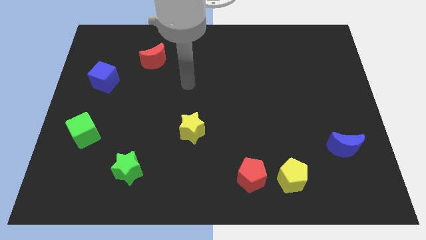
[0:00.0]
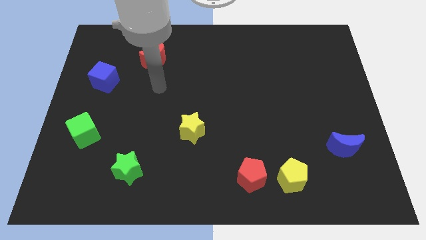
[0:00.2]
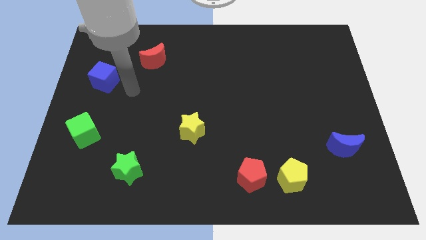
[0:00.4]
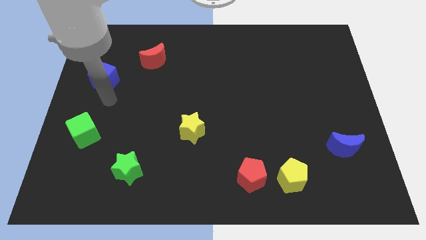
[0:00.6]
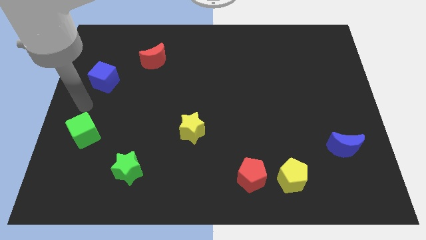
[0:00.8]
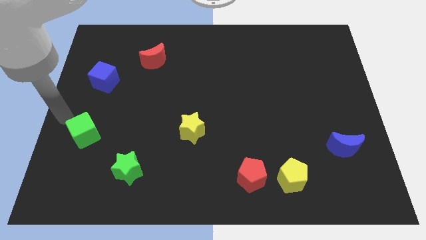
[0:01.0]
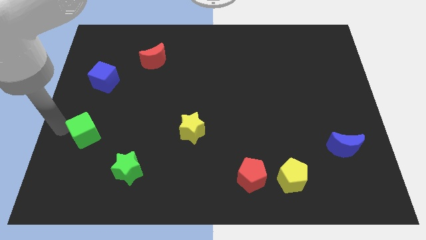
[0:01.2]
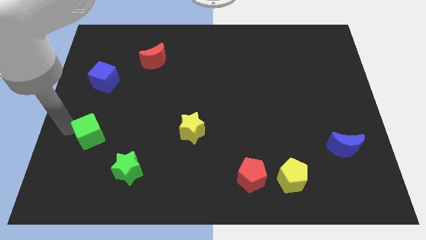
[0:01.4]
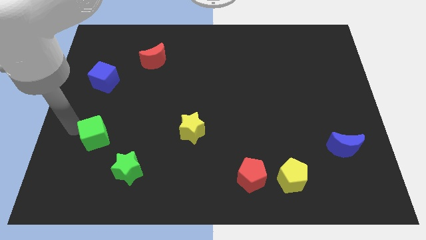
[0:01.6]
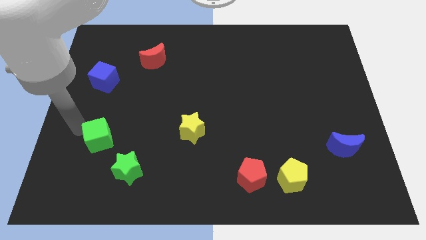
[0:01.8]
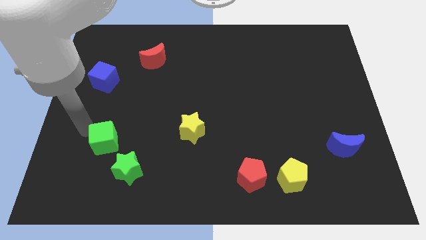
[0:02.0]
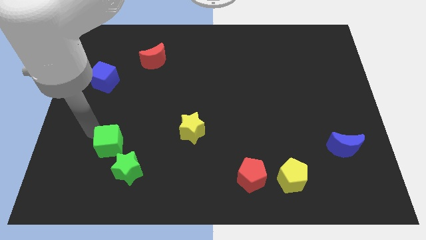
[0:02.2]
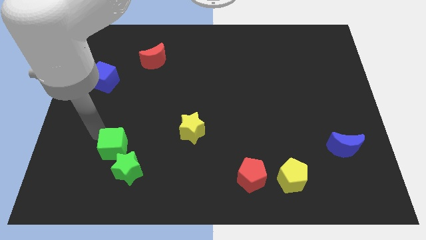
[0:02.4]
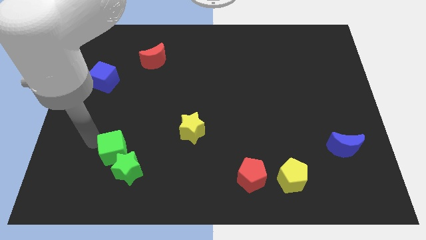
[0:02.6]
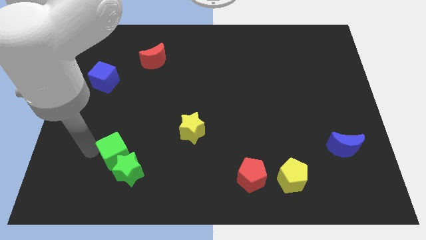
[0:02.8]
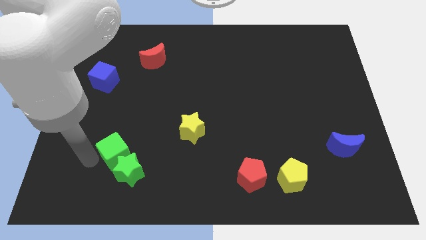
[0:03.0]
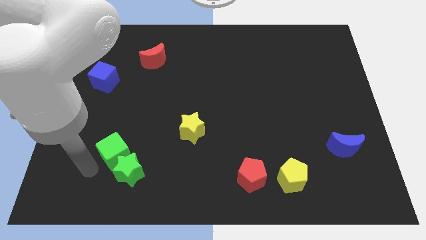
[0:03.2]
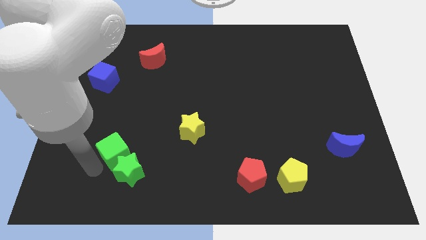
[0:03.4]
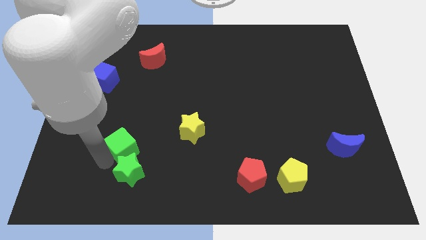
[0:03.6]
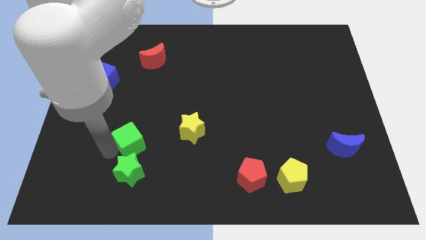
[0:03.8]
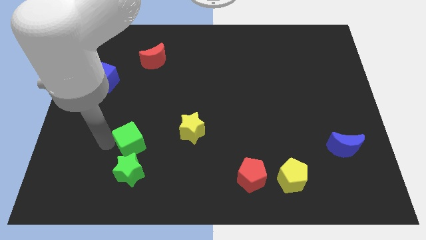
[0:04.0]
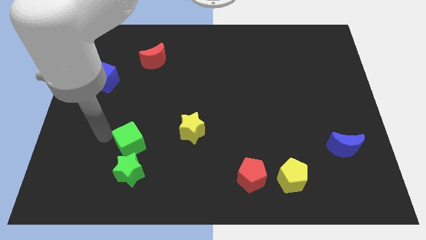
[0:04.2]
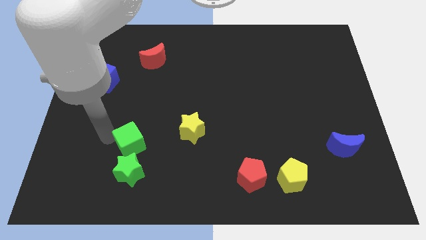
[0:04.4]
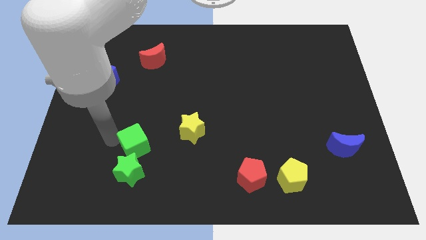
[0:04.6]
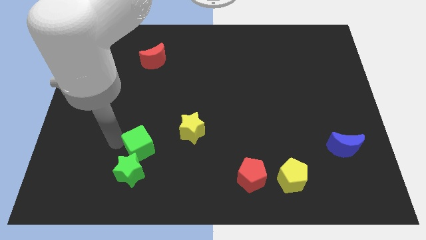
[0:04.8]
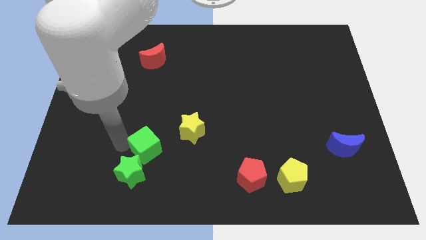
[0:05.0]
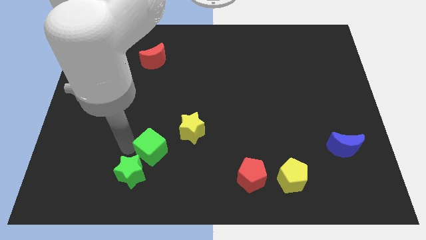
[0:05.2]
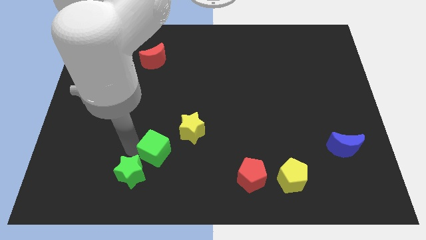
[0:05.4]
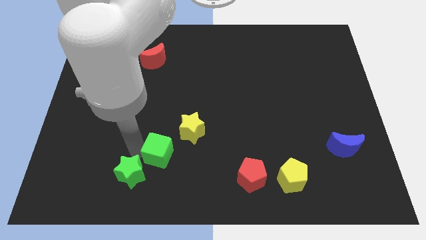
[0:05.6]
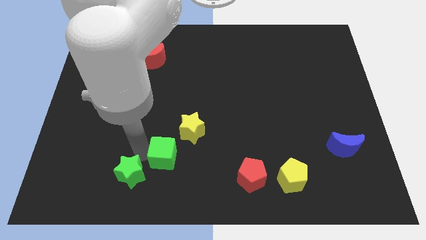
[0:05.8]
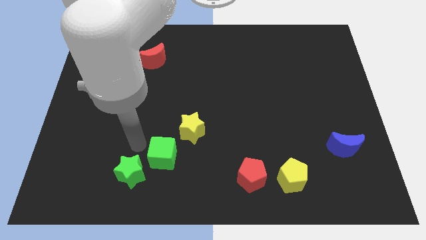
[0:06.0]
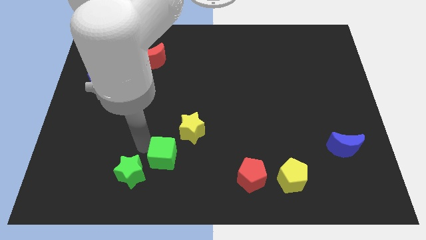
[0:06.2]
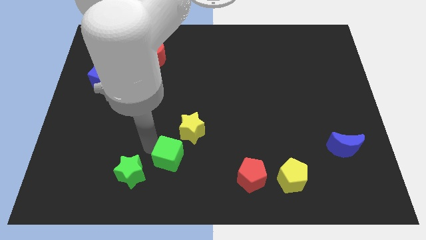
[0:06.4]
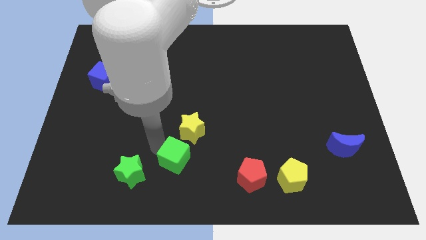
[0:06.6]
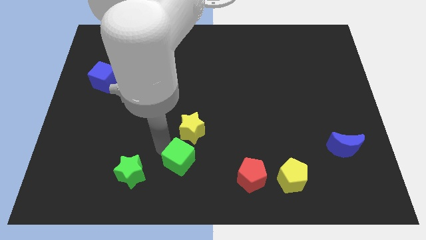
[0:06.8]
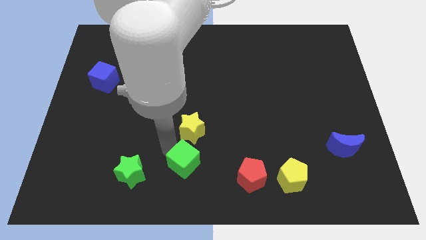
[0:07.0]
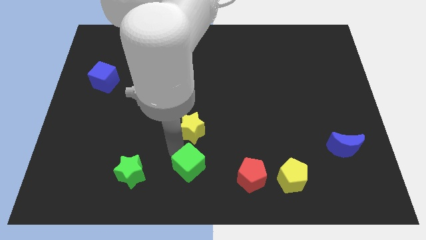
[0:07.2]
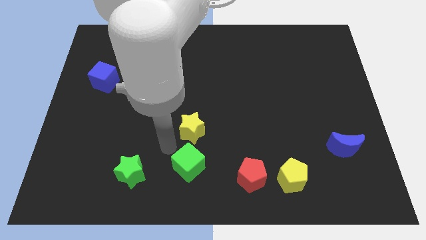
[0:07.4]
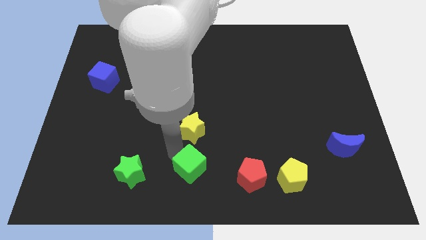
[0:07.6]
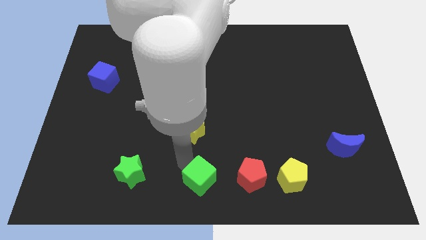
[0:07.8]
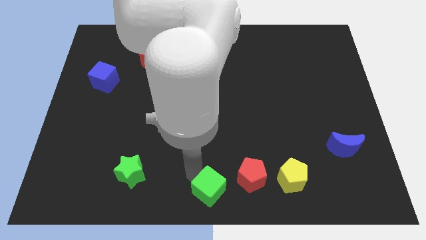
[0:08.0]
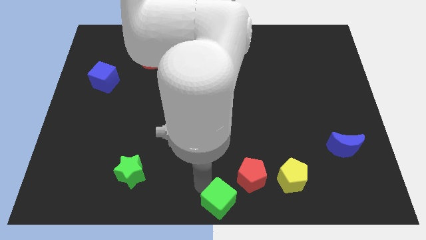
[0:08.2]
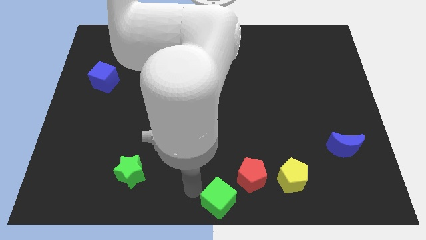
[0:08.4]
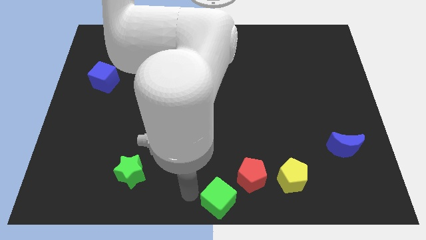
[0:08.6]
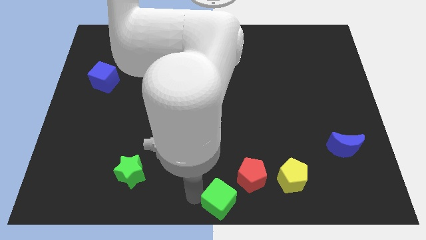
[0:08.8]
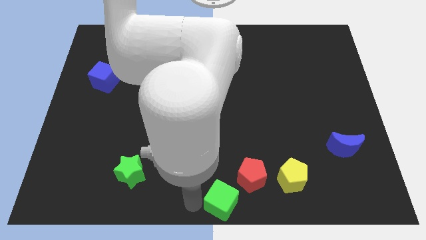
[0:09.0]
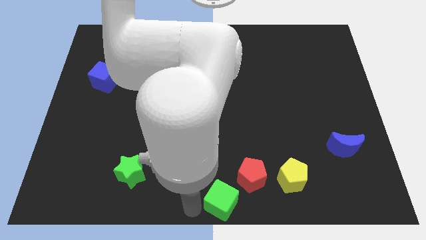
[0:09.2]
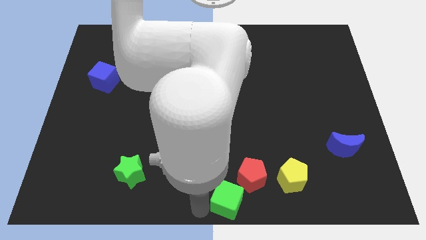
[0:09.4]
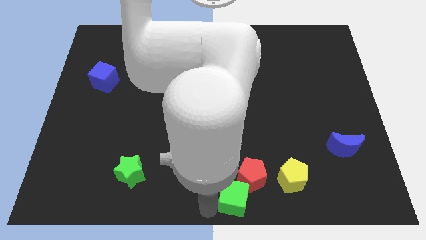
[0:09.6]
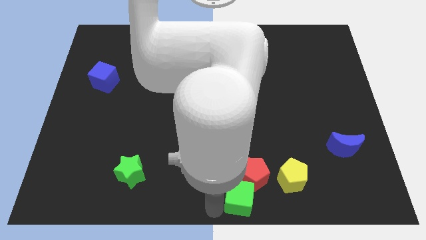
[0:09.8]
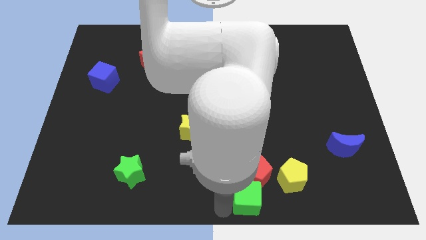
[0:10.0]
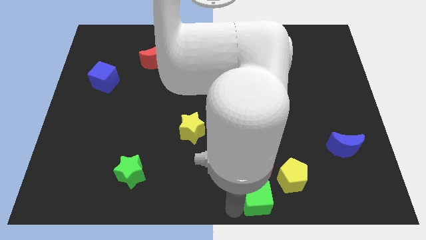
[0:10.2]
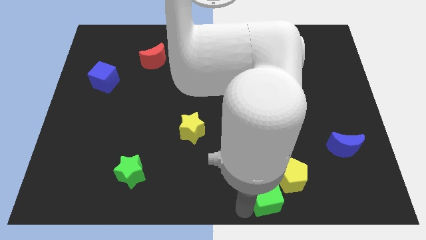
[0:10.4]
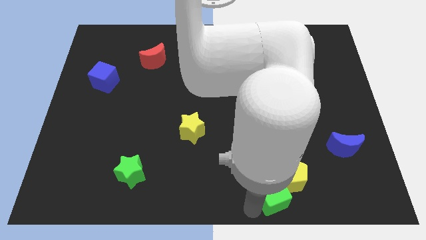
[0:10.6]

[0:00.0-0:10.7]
put the green cube next to the yellow pentagon

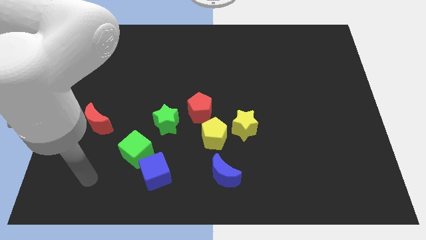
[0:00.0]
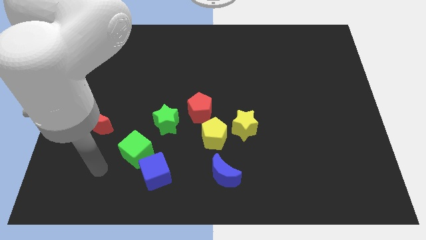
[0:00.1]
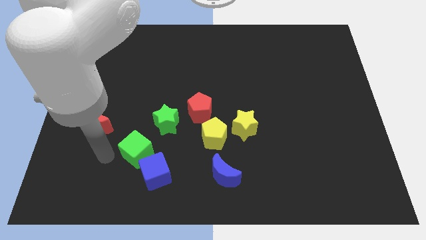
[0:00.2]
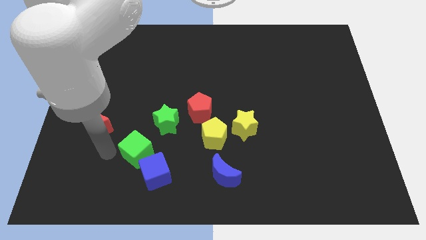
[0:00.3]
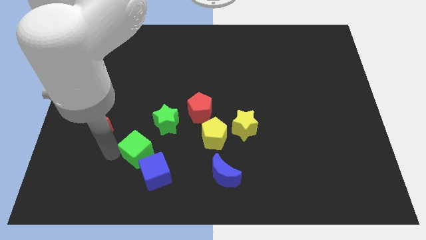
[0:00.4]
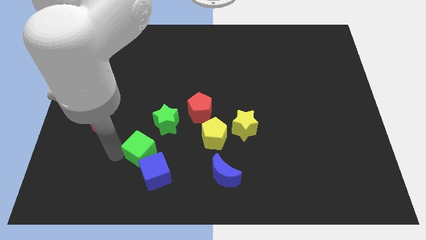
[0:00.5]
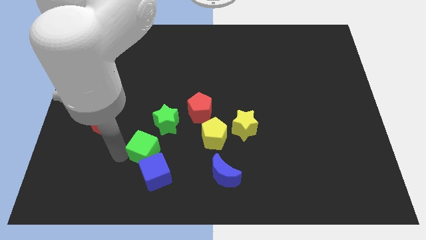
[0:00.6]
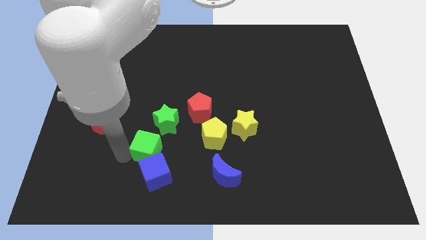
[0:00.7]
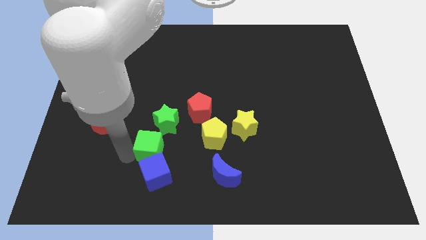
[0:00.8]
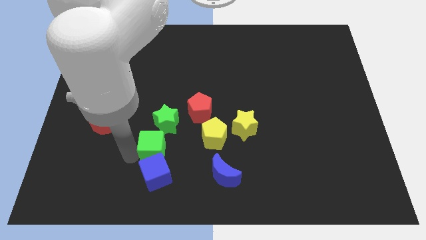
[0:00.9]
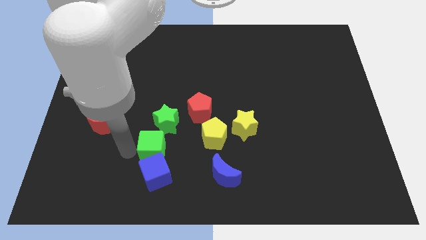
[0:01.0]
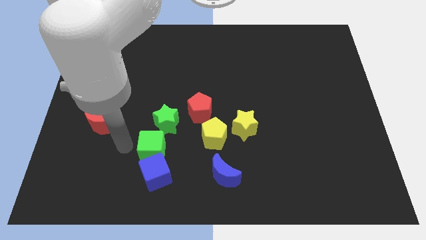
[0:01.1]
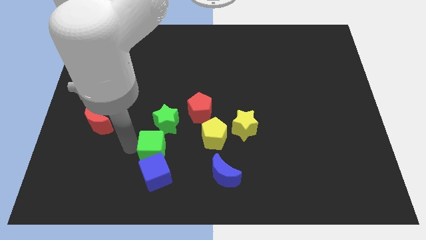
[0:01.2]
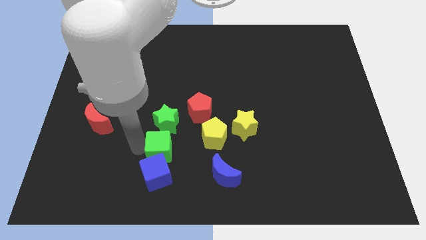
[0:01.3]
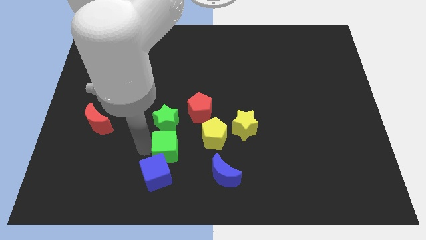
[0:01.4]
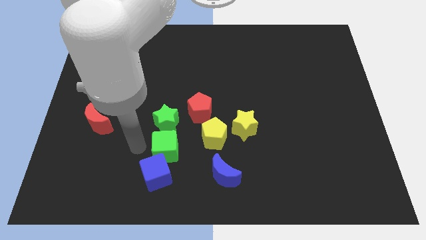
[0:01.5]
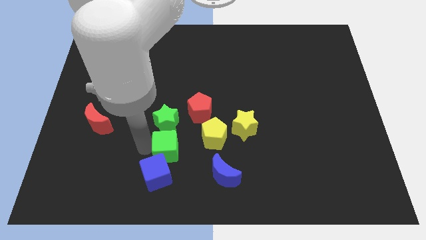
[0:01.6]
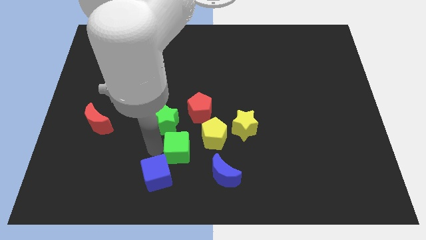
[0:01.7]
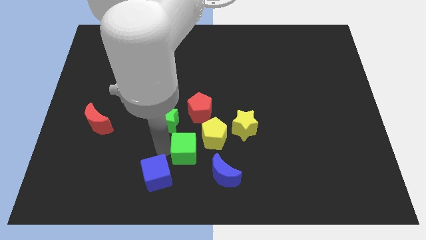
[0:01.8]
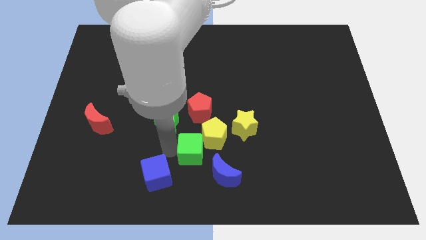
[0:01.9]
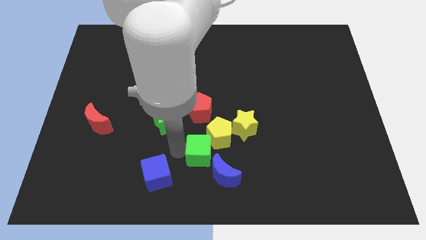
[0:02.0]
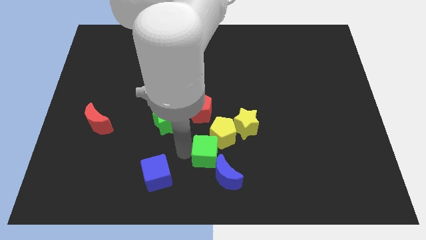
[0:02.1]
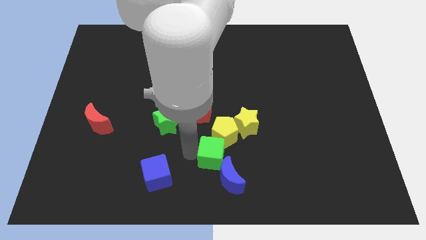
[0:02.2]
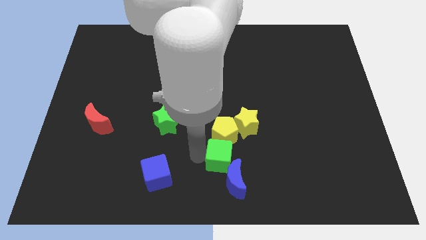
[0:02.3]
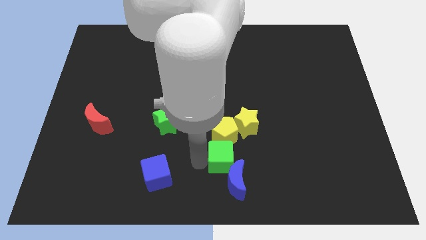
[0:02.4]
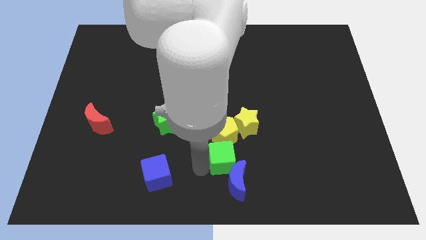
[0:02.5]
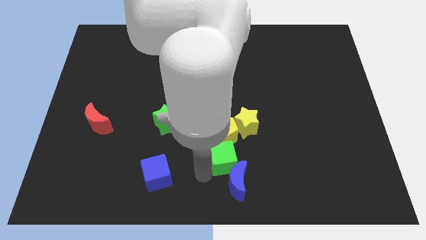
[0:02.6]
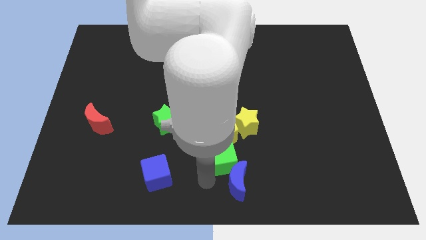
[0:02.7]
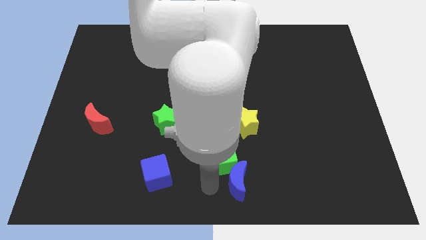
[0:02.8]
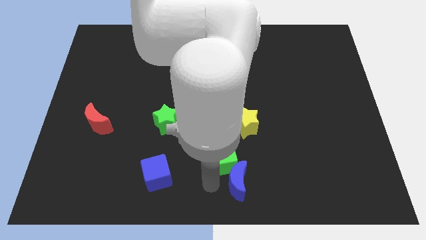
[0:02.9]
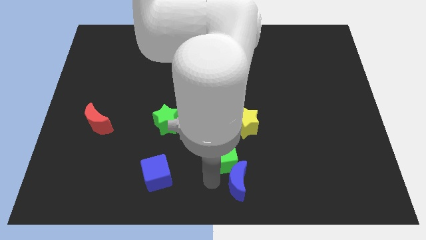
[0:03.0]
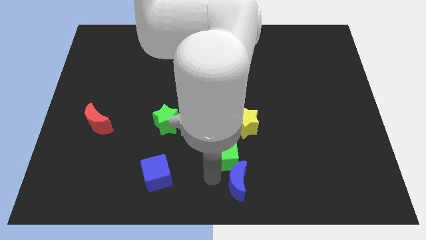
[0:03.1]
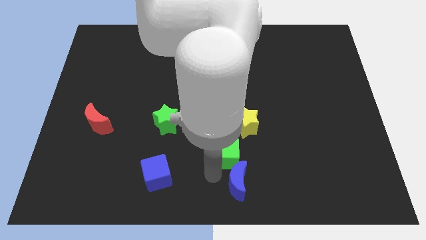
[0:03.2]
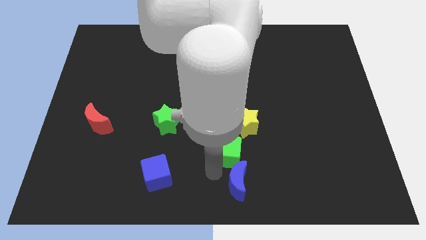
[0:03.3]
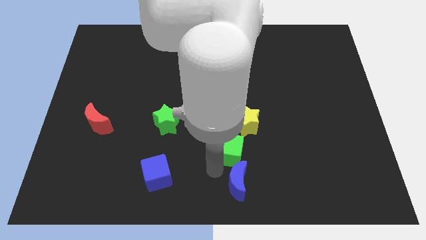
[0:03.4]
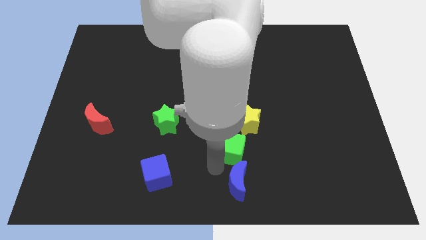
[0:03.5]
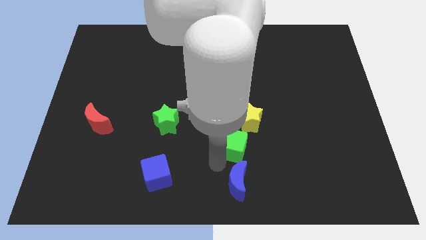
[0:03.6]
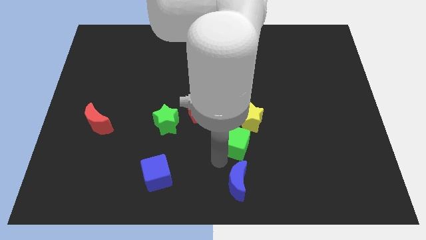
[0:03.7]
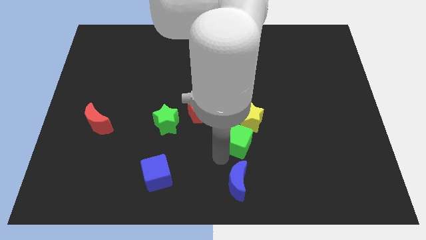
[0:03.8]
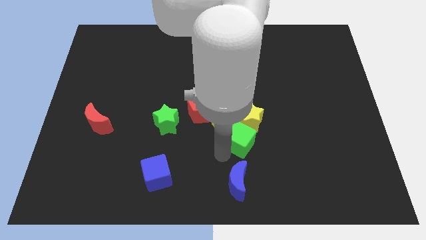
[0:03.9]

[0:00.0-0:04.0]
slide the green cube towards the yellow star
